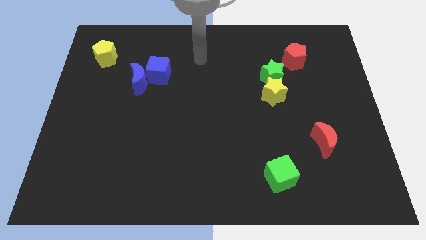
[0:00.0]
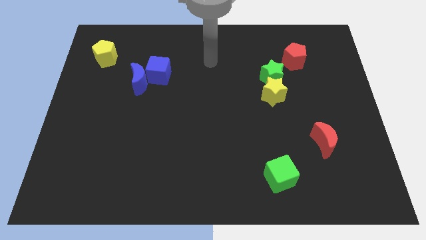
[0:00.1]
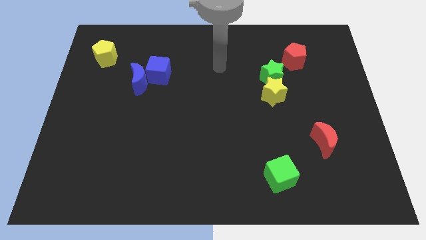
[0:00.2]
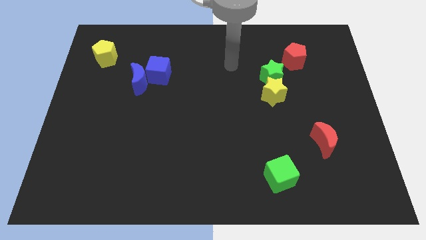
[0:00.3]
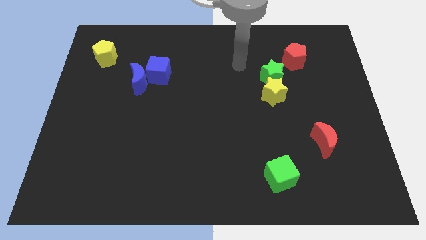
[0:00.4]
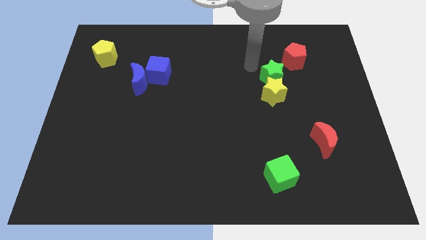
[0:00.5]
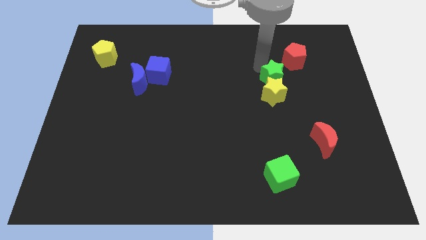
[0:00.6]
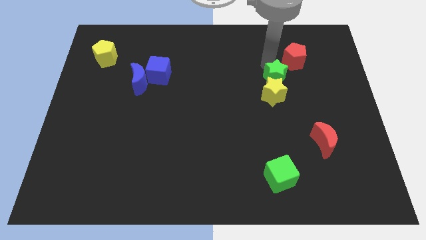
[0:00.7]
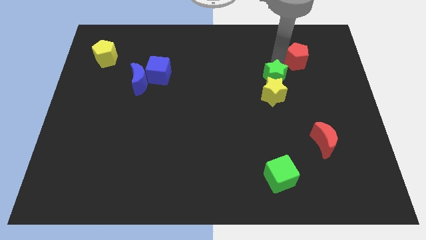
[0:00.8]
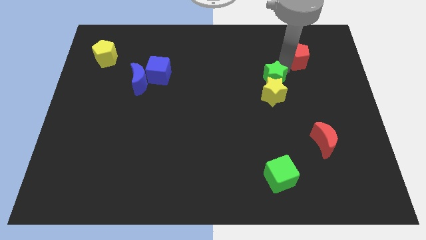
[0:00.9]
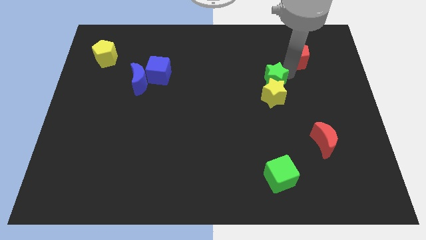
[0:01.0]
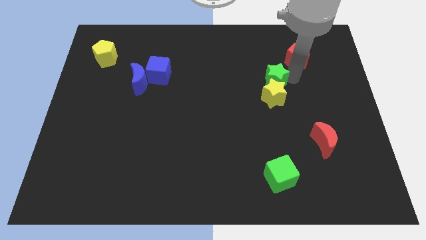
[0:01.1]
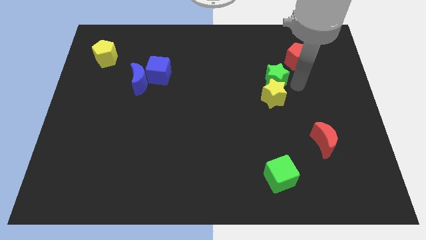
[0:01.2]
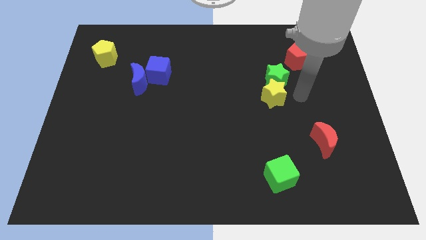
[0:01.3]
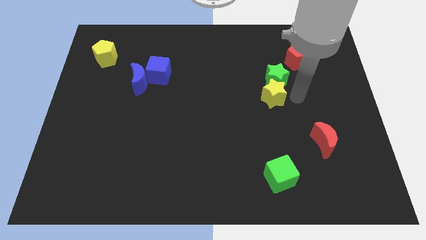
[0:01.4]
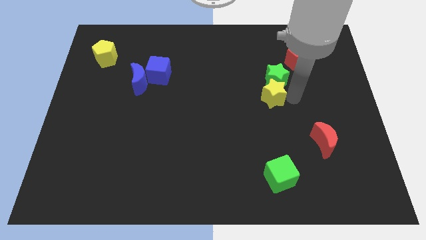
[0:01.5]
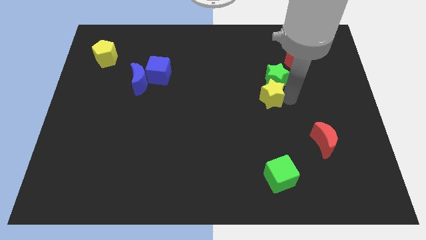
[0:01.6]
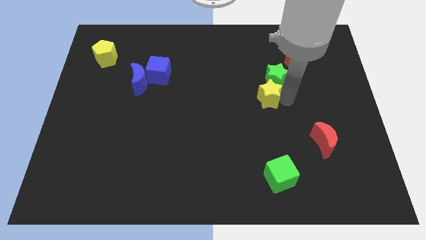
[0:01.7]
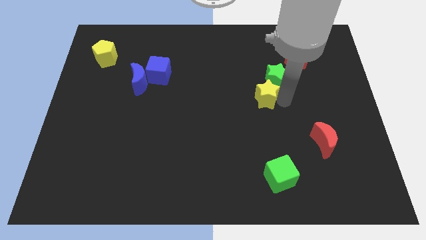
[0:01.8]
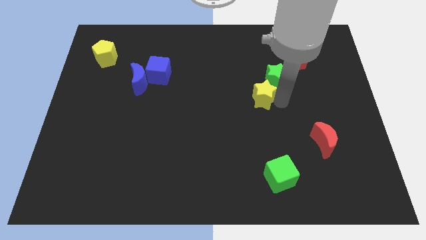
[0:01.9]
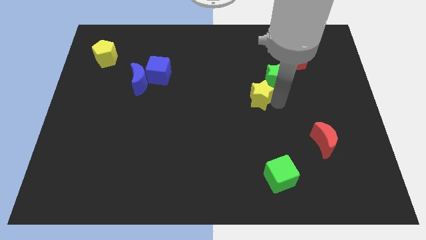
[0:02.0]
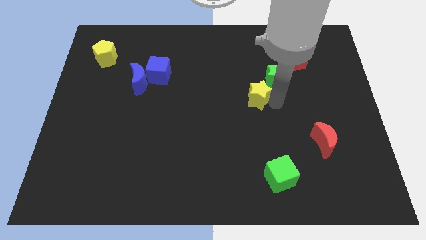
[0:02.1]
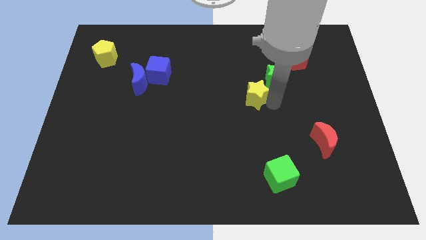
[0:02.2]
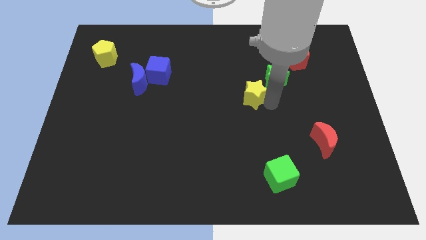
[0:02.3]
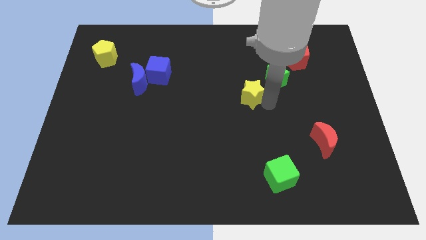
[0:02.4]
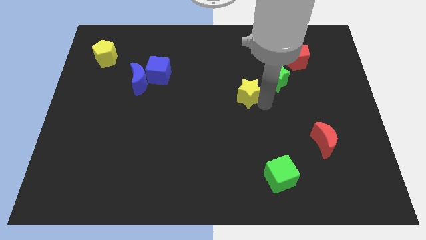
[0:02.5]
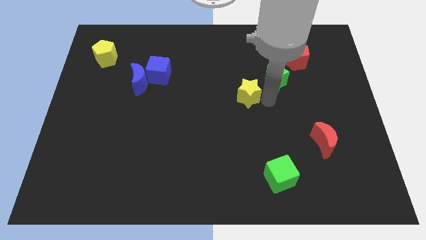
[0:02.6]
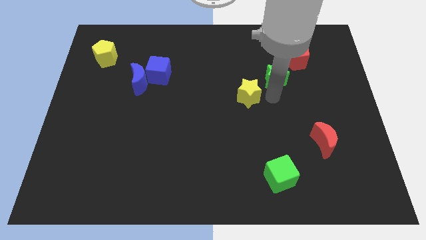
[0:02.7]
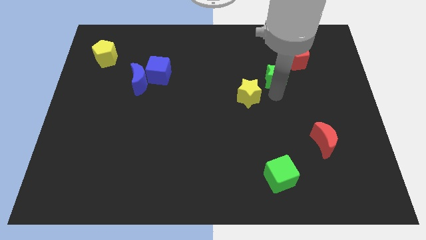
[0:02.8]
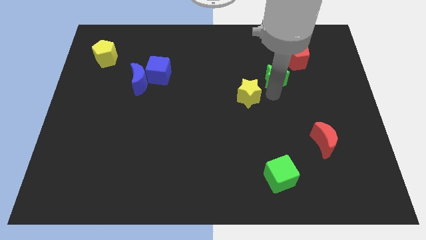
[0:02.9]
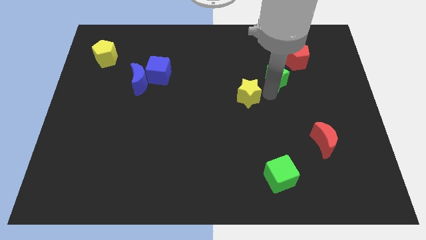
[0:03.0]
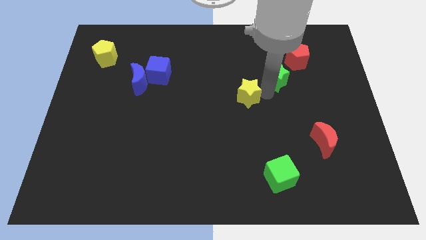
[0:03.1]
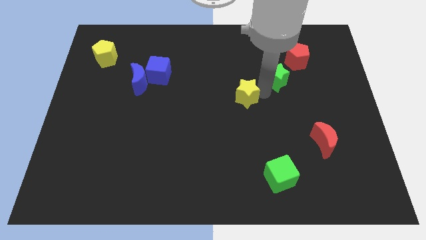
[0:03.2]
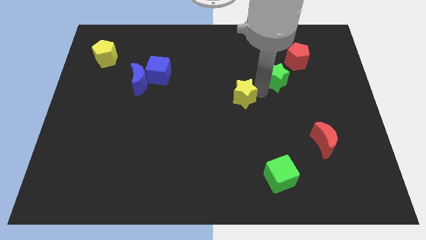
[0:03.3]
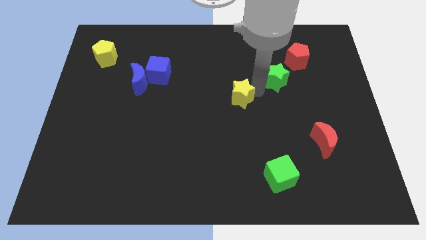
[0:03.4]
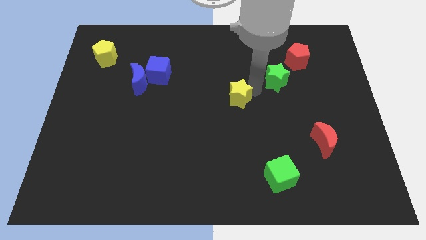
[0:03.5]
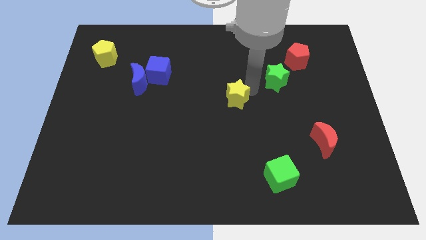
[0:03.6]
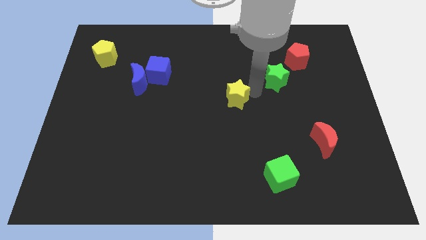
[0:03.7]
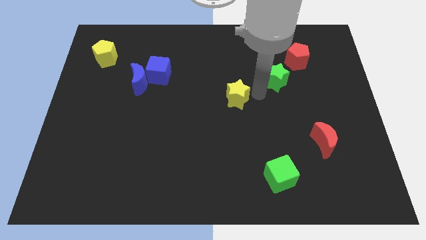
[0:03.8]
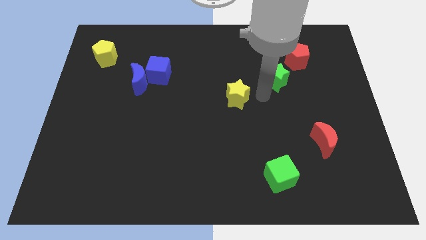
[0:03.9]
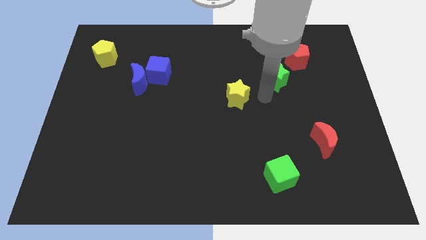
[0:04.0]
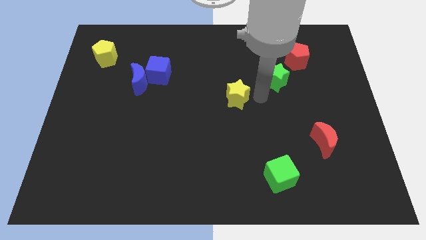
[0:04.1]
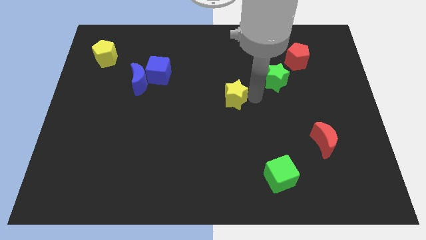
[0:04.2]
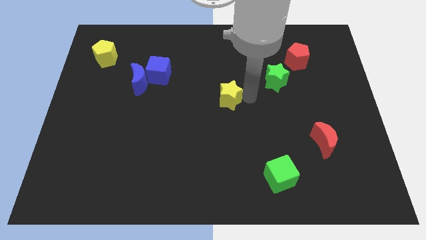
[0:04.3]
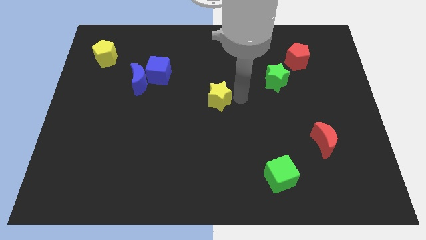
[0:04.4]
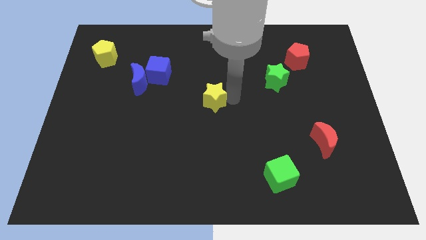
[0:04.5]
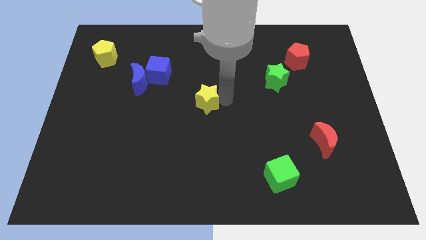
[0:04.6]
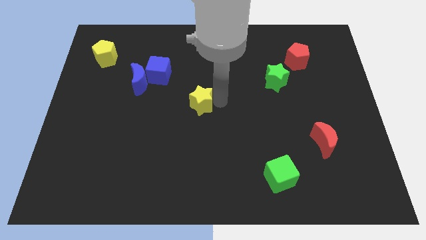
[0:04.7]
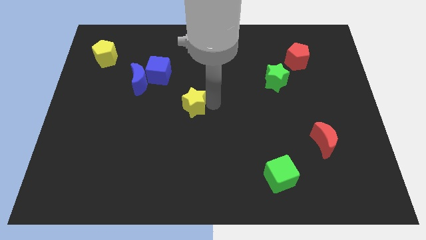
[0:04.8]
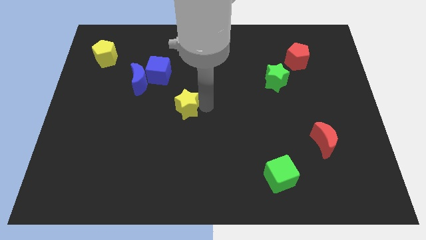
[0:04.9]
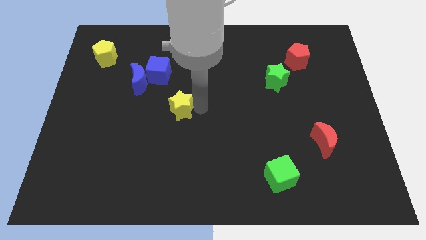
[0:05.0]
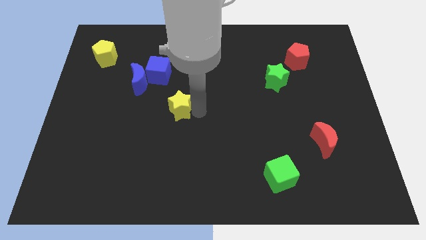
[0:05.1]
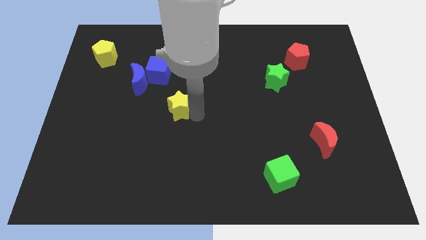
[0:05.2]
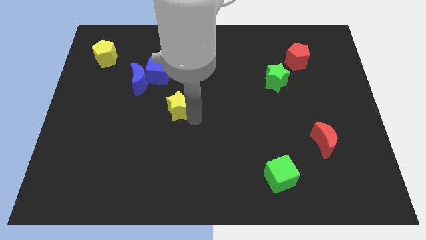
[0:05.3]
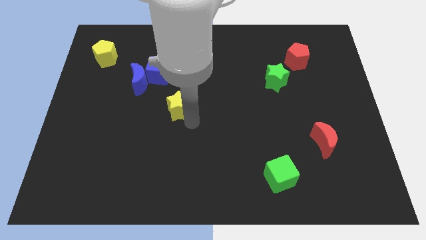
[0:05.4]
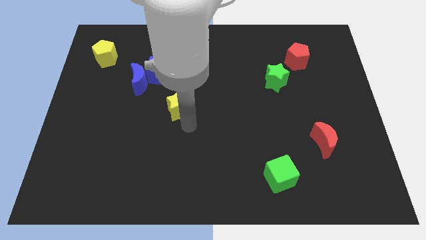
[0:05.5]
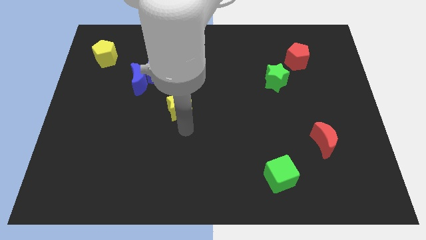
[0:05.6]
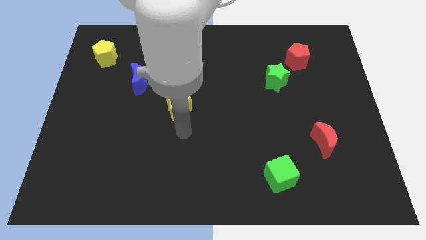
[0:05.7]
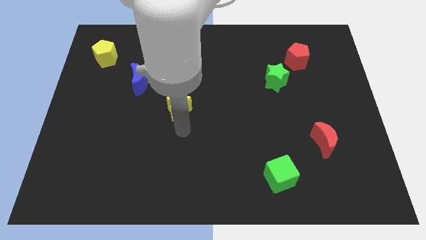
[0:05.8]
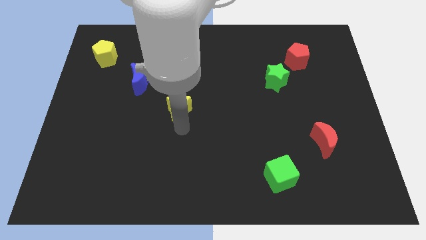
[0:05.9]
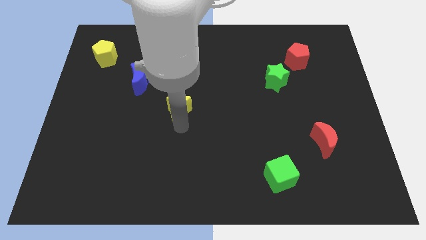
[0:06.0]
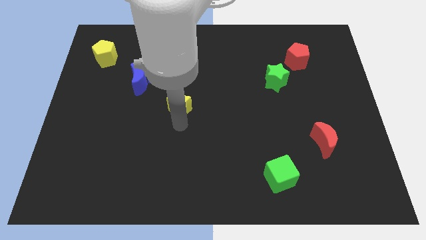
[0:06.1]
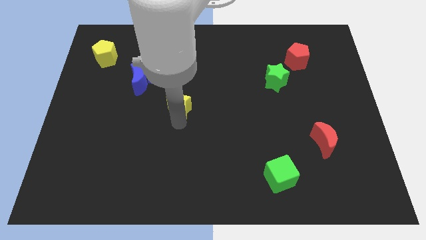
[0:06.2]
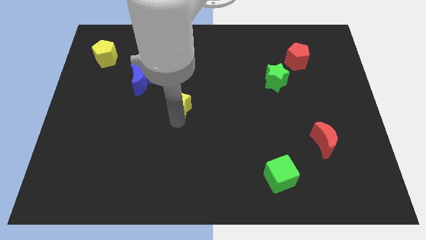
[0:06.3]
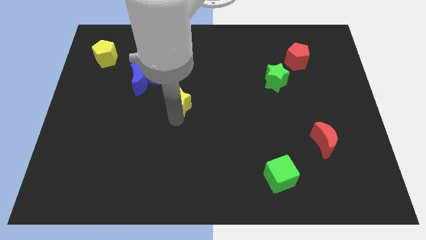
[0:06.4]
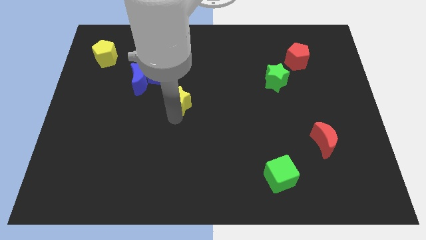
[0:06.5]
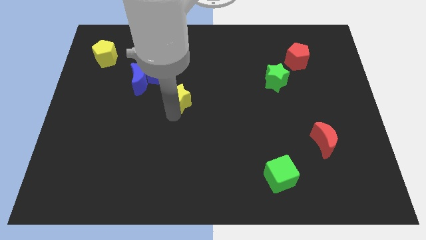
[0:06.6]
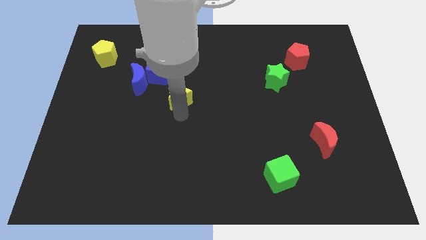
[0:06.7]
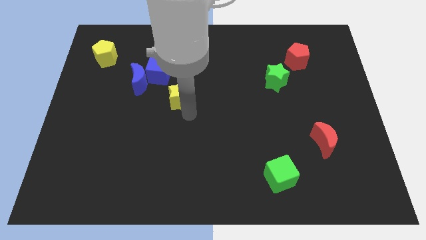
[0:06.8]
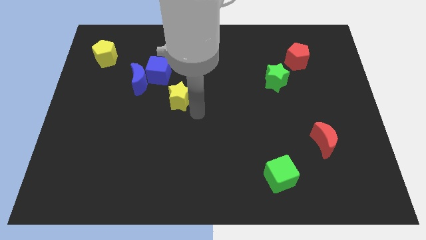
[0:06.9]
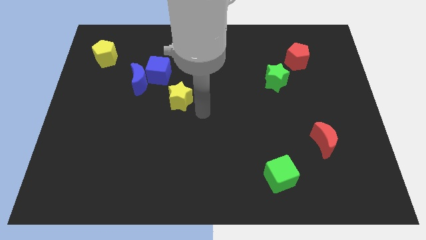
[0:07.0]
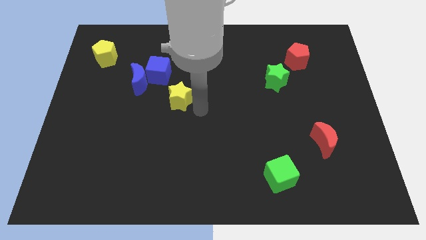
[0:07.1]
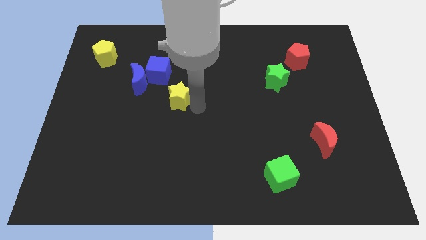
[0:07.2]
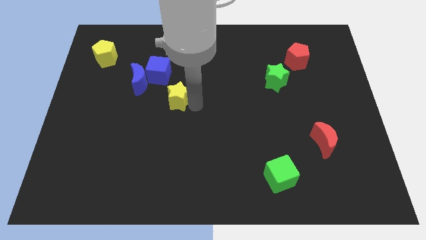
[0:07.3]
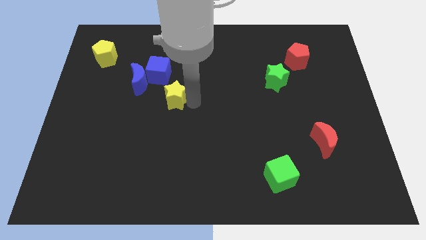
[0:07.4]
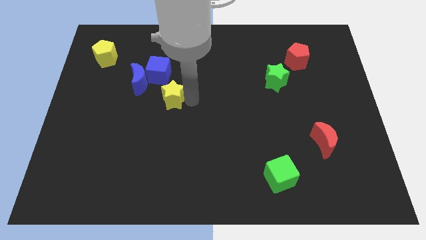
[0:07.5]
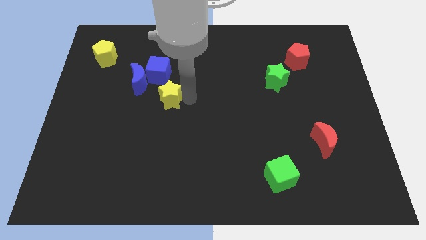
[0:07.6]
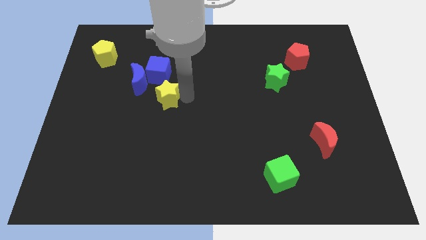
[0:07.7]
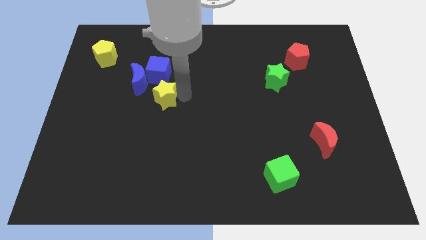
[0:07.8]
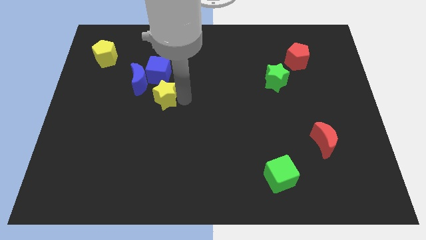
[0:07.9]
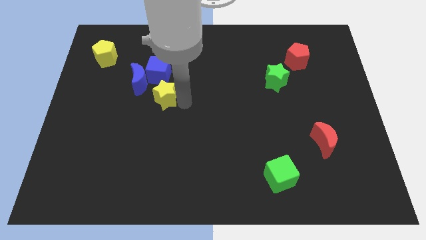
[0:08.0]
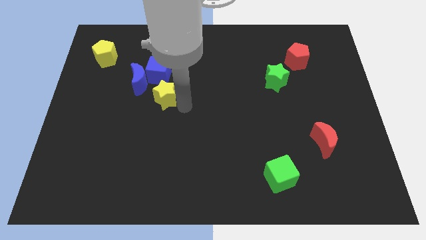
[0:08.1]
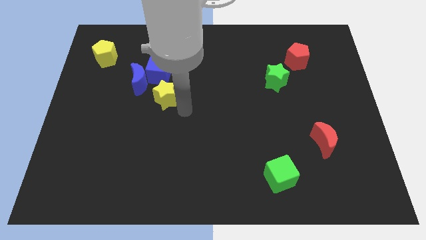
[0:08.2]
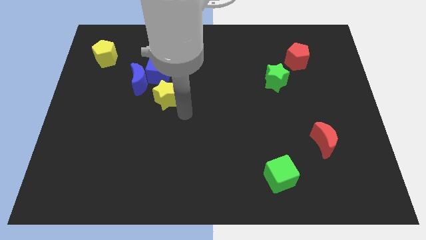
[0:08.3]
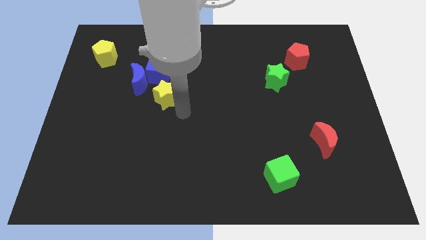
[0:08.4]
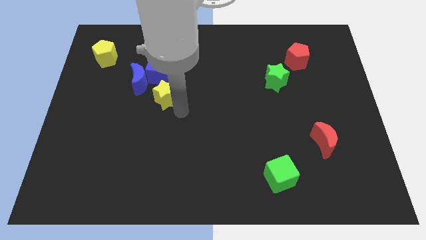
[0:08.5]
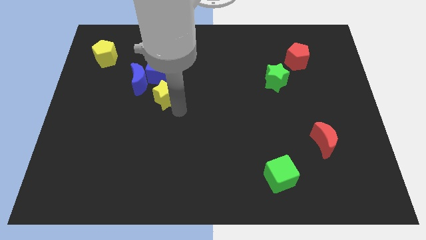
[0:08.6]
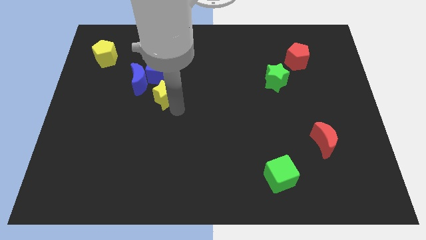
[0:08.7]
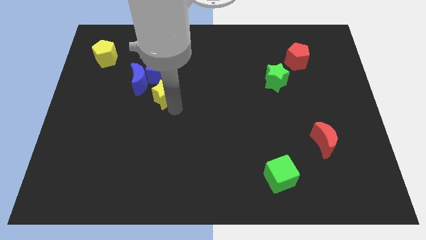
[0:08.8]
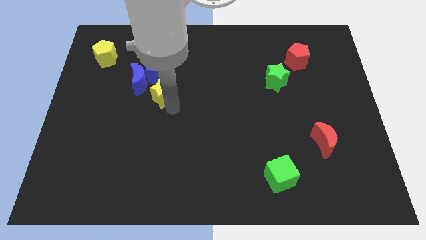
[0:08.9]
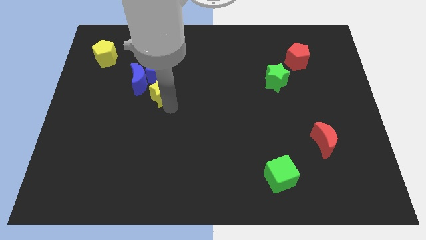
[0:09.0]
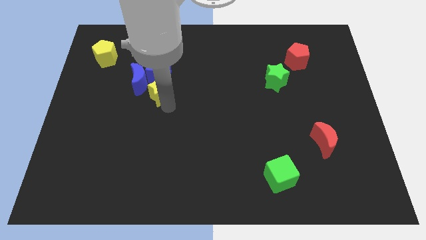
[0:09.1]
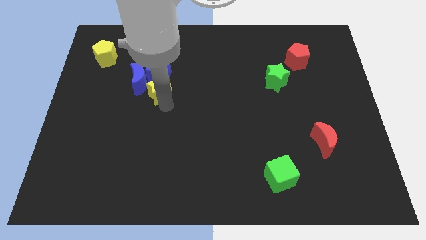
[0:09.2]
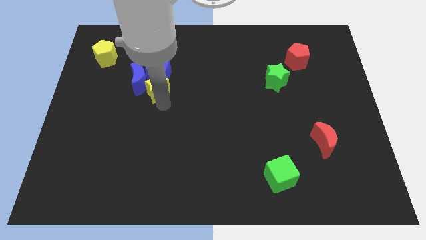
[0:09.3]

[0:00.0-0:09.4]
put the yellow star close to the blue moon
